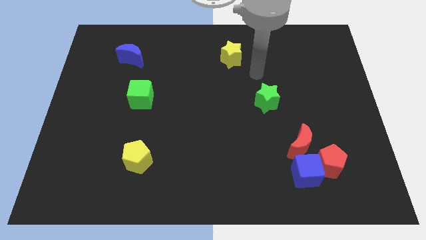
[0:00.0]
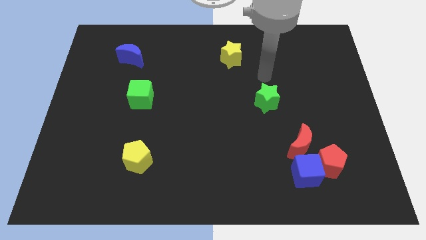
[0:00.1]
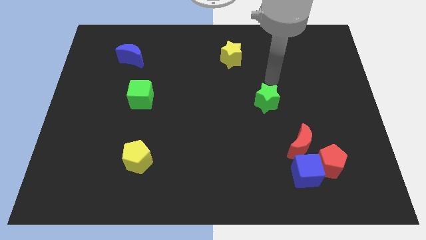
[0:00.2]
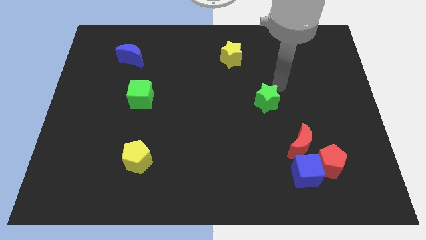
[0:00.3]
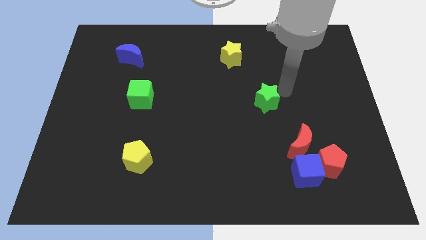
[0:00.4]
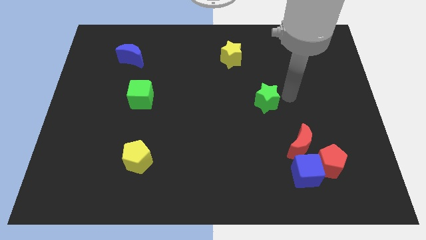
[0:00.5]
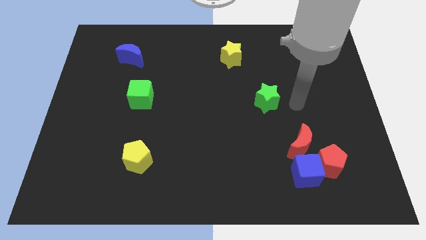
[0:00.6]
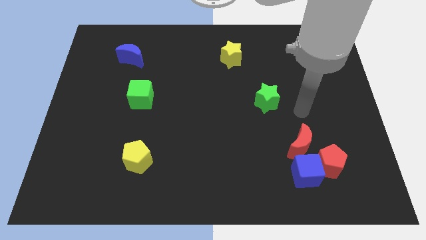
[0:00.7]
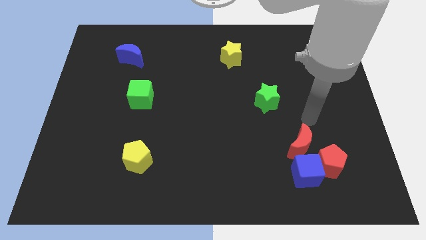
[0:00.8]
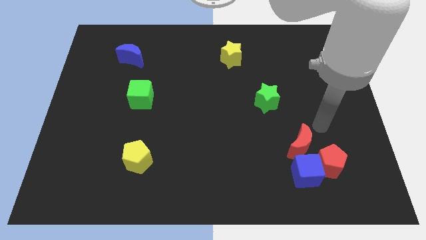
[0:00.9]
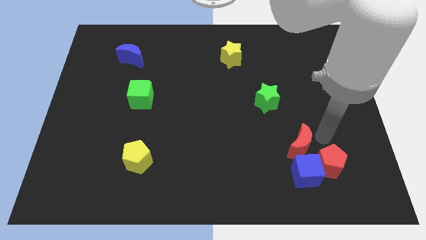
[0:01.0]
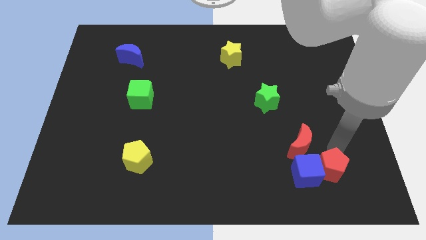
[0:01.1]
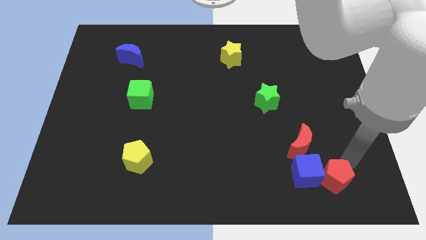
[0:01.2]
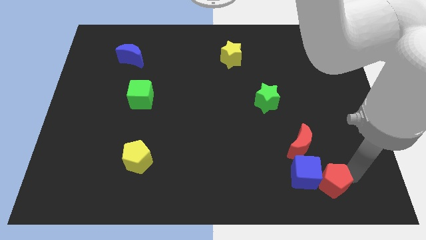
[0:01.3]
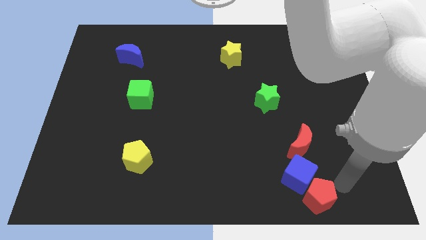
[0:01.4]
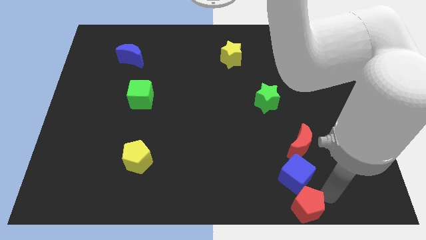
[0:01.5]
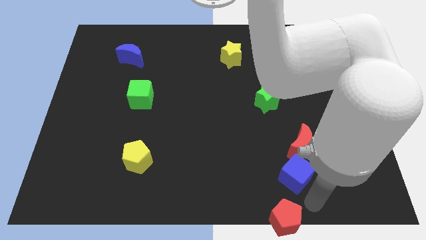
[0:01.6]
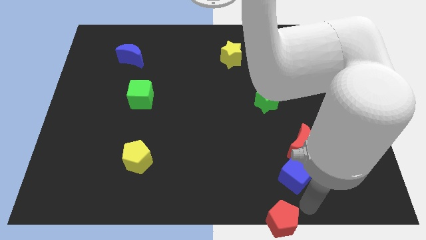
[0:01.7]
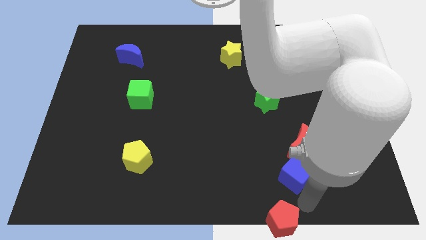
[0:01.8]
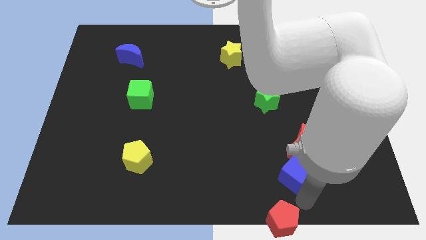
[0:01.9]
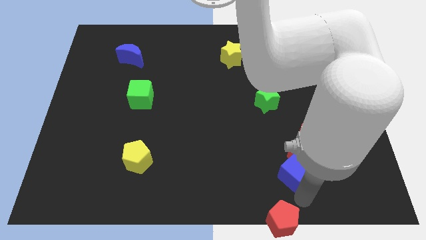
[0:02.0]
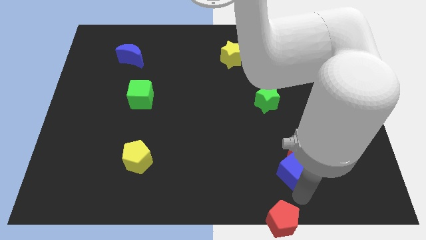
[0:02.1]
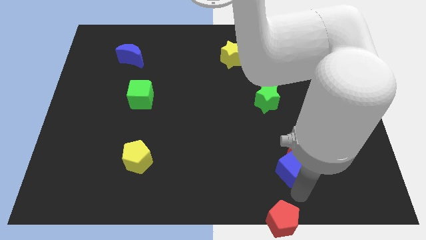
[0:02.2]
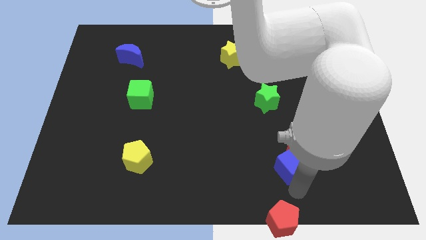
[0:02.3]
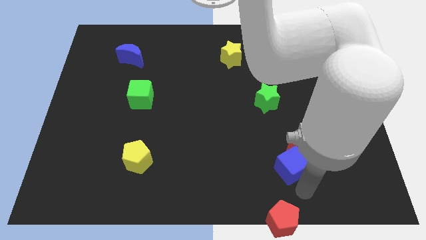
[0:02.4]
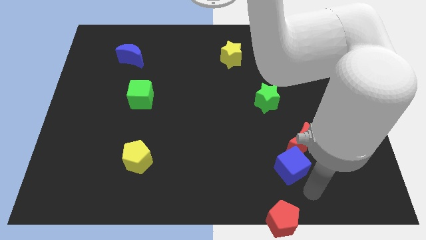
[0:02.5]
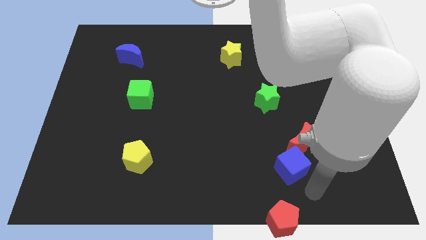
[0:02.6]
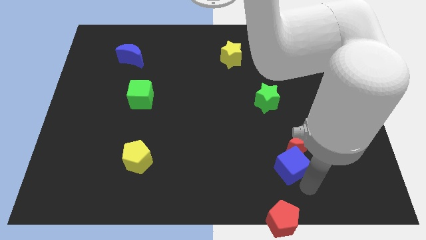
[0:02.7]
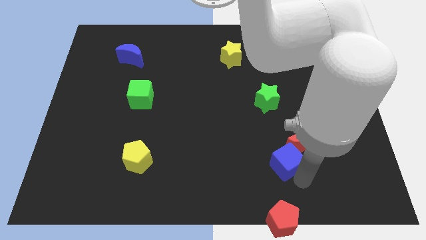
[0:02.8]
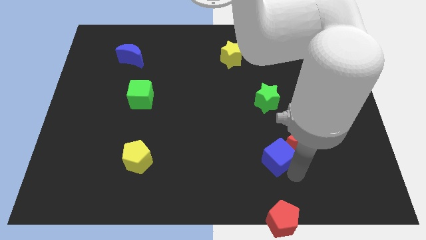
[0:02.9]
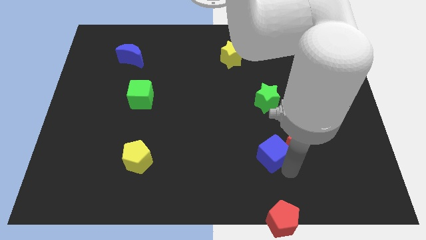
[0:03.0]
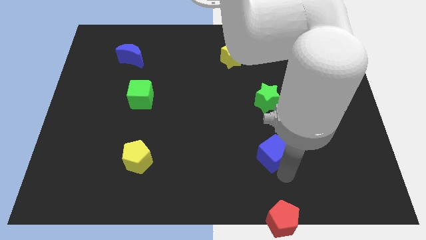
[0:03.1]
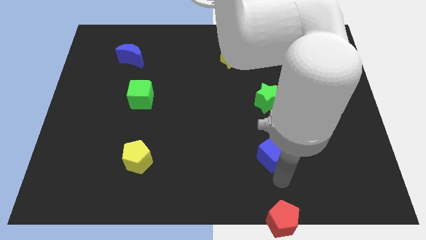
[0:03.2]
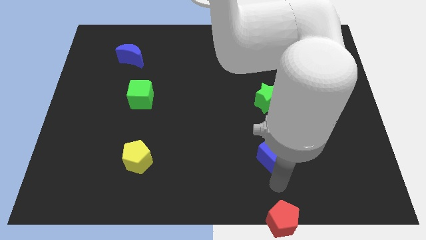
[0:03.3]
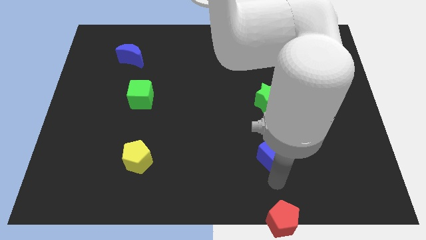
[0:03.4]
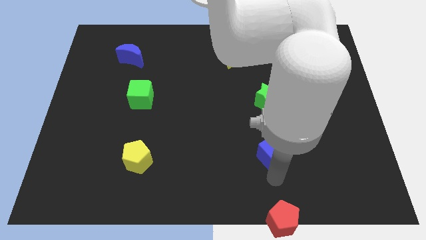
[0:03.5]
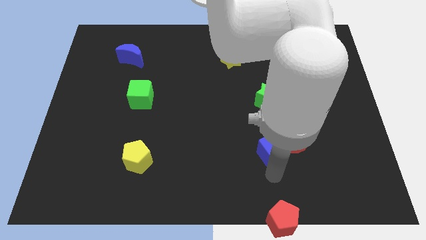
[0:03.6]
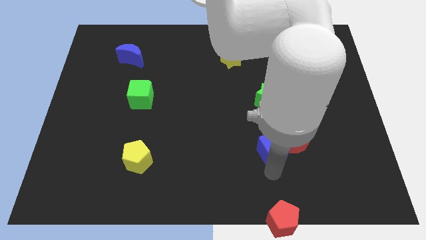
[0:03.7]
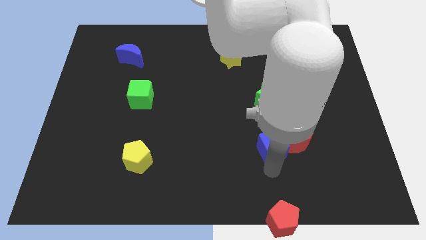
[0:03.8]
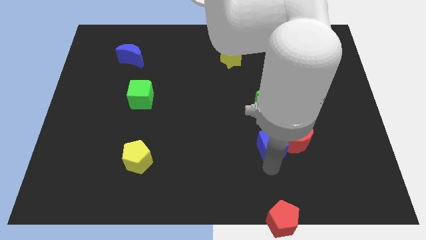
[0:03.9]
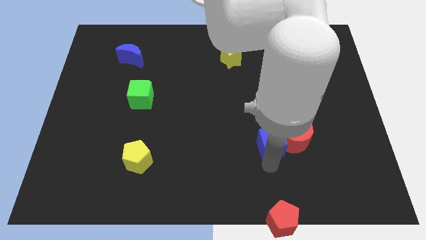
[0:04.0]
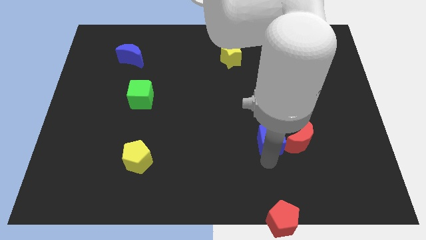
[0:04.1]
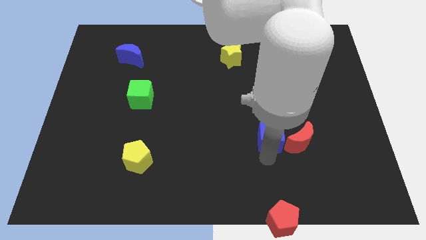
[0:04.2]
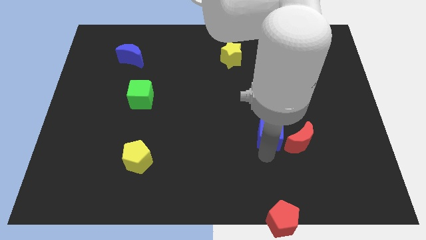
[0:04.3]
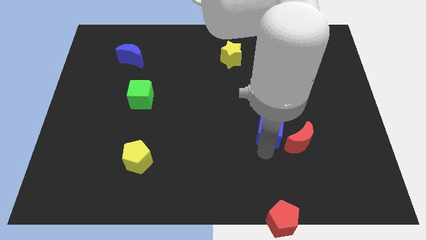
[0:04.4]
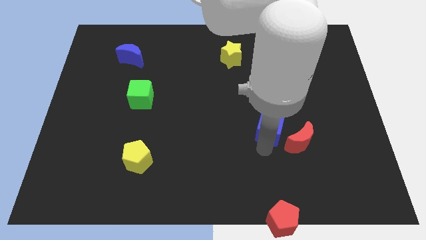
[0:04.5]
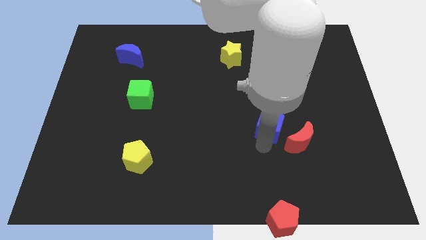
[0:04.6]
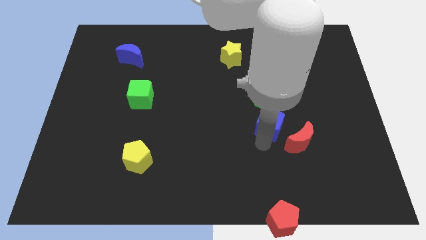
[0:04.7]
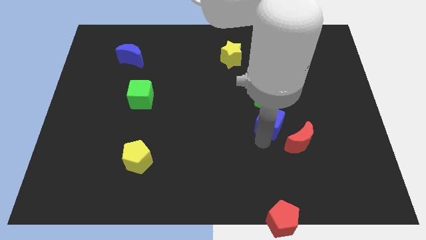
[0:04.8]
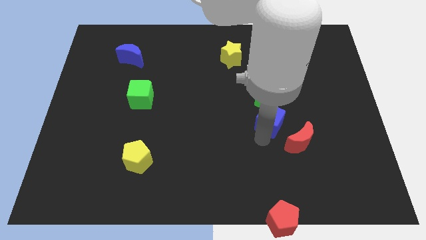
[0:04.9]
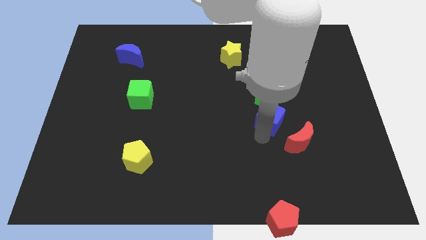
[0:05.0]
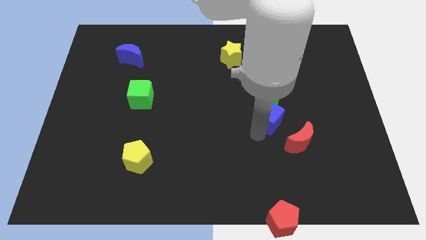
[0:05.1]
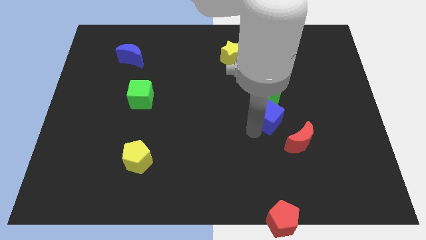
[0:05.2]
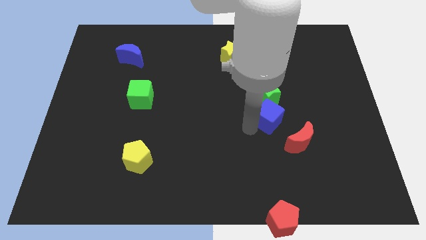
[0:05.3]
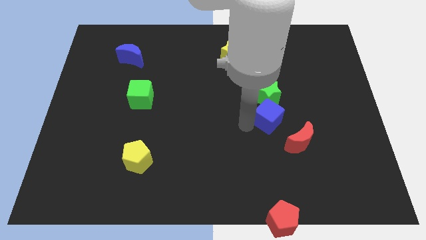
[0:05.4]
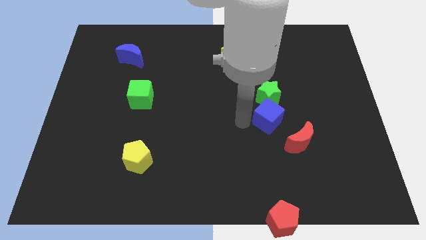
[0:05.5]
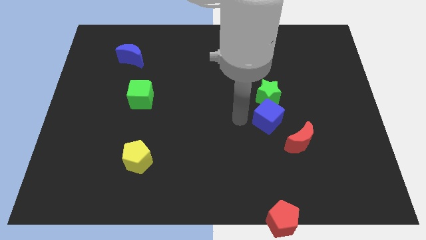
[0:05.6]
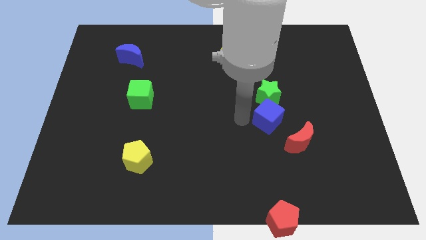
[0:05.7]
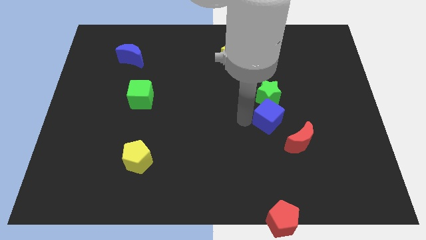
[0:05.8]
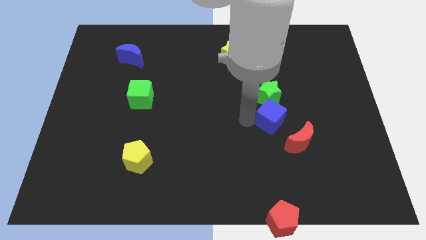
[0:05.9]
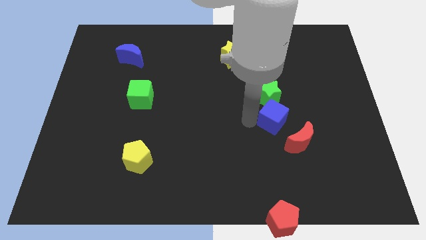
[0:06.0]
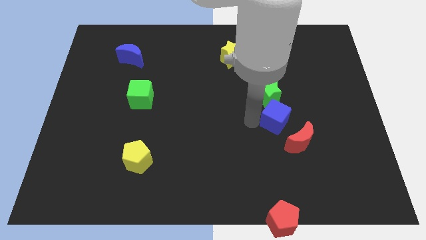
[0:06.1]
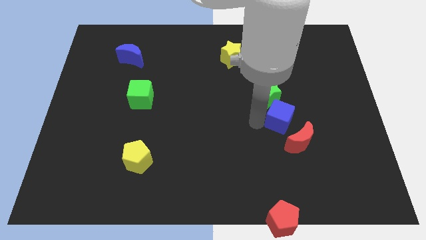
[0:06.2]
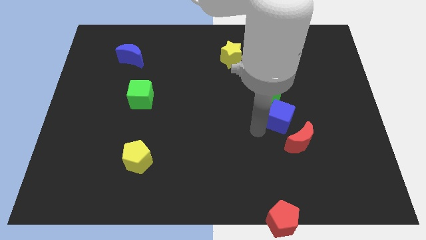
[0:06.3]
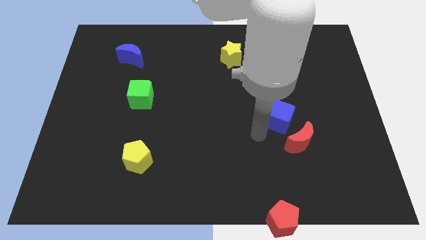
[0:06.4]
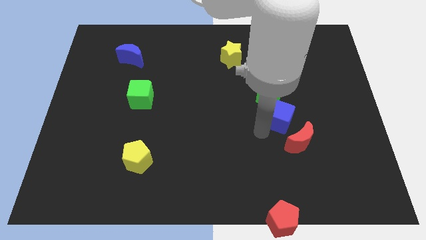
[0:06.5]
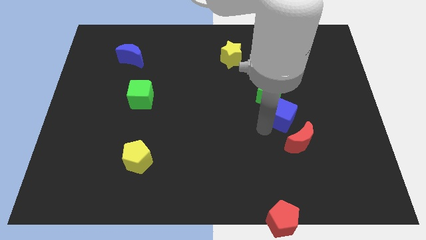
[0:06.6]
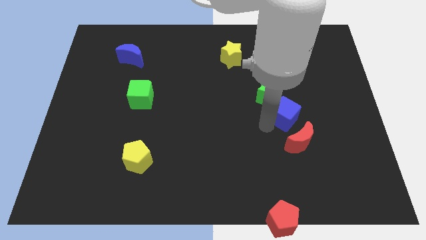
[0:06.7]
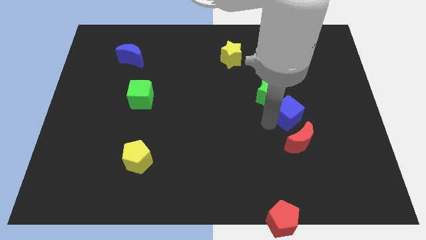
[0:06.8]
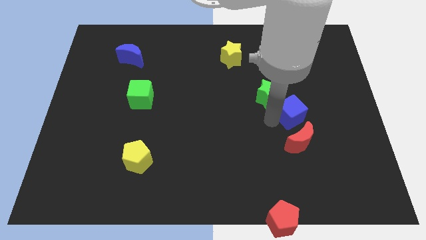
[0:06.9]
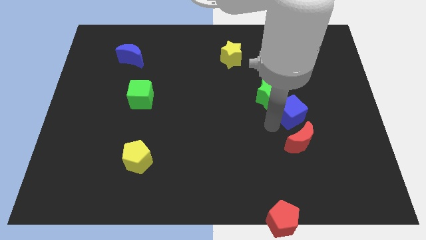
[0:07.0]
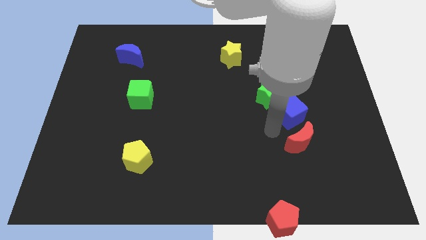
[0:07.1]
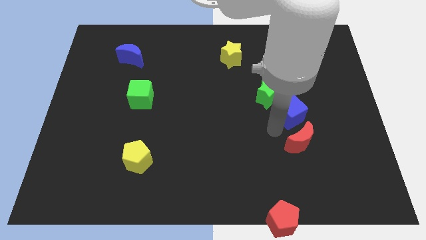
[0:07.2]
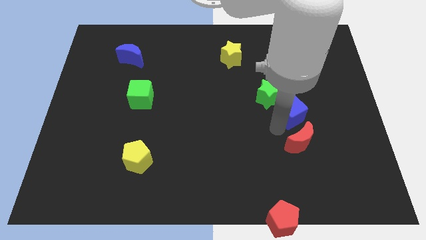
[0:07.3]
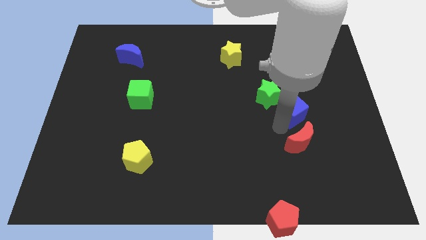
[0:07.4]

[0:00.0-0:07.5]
slide the blue cube just right of the green star
